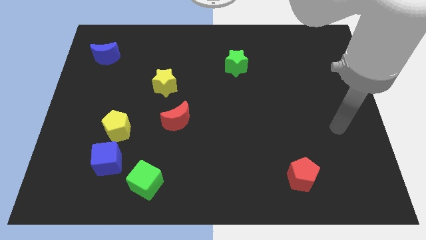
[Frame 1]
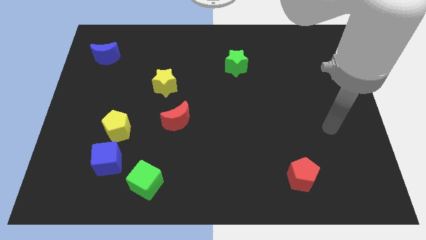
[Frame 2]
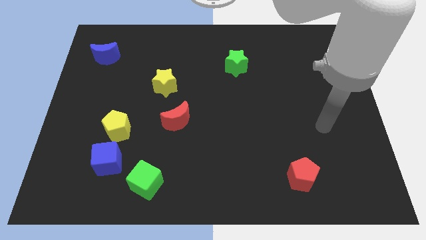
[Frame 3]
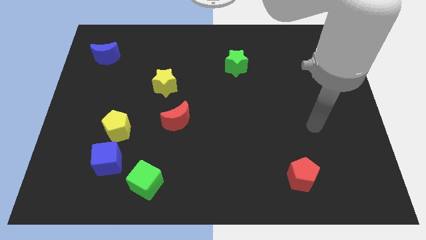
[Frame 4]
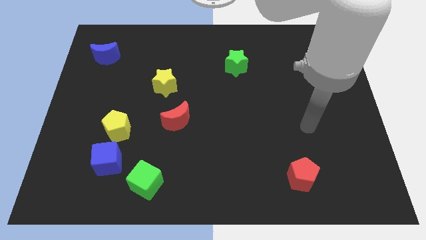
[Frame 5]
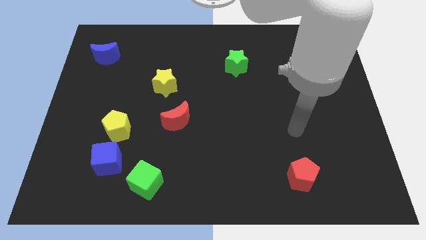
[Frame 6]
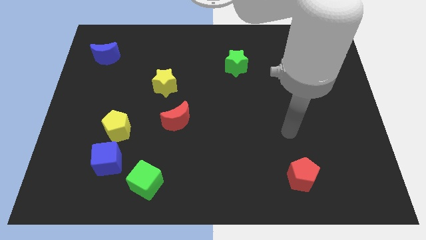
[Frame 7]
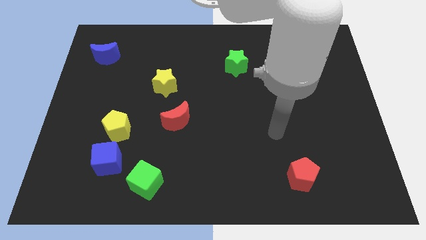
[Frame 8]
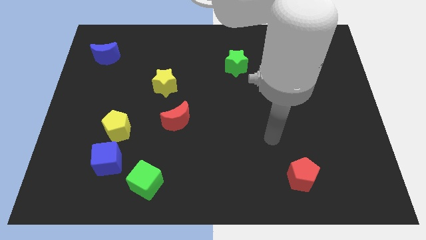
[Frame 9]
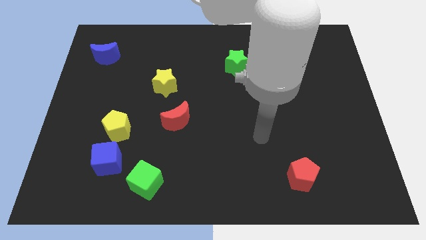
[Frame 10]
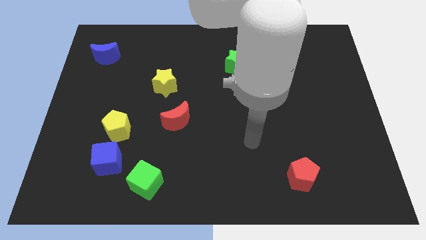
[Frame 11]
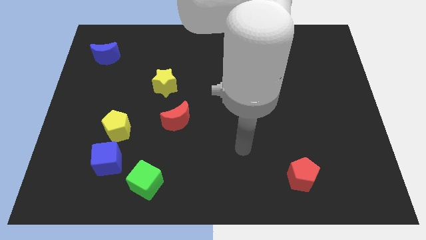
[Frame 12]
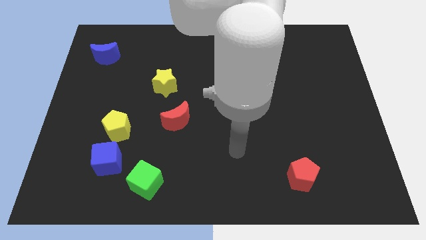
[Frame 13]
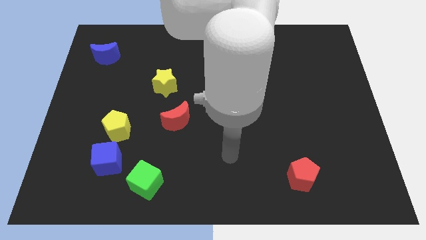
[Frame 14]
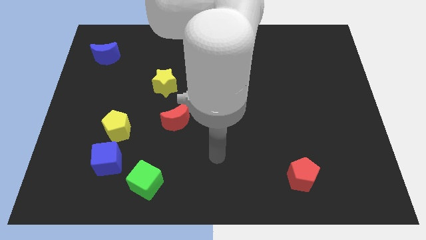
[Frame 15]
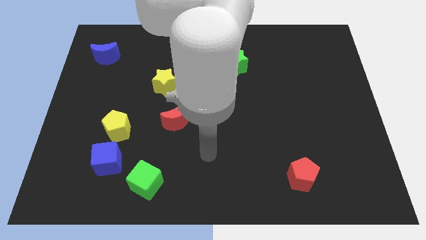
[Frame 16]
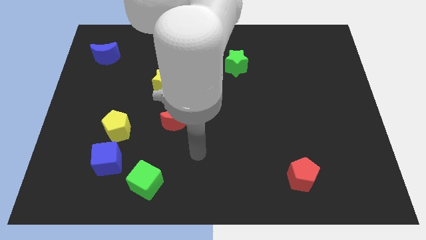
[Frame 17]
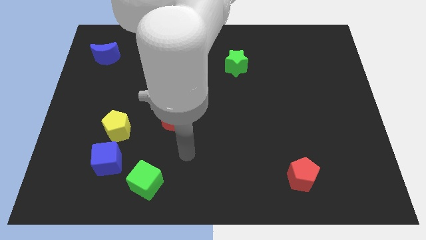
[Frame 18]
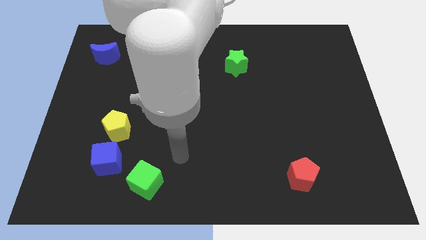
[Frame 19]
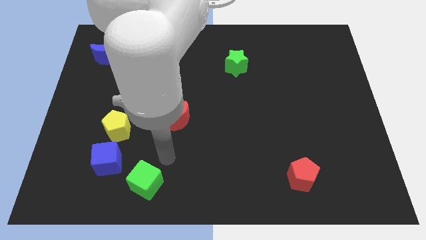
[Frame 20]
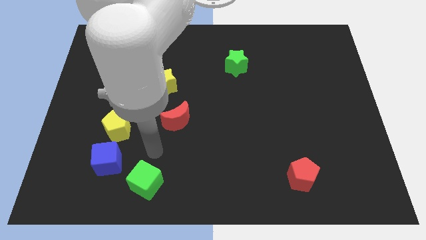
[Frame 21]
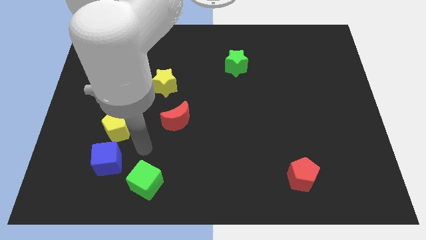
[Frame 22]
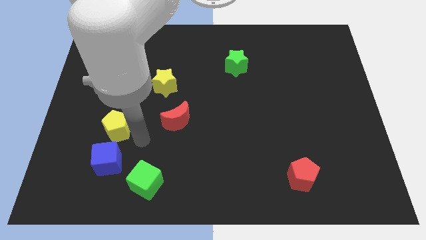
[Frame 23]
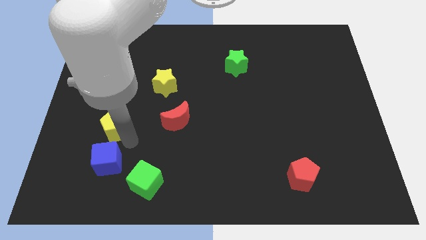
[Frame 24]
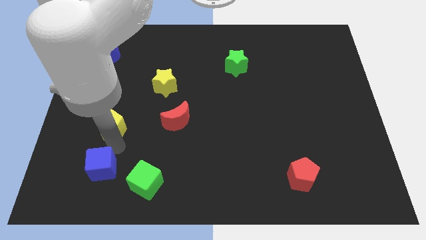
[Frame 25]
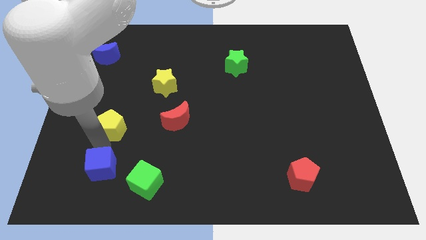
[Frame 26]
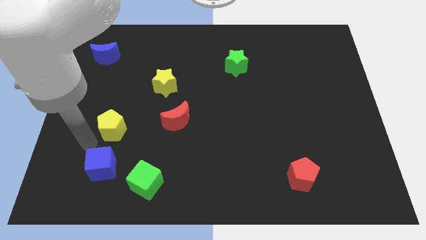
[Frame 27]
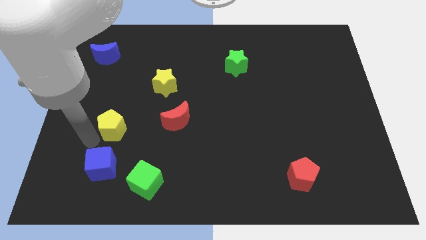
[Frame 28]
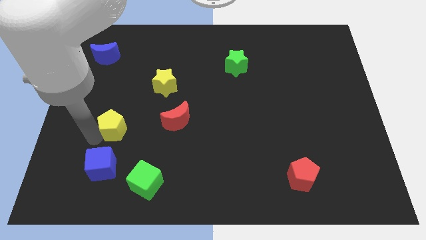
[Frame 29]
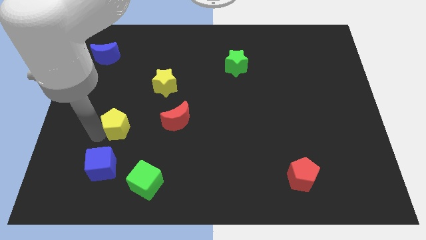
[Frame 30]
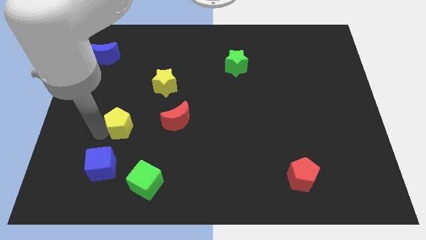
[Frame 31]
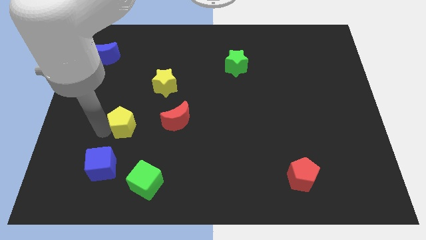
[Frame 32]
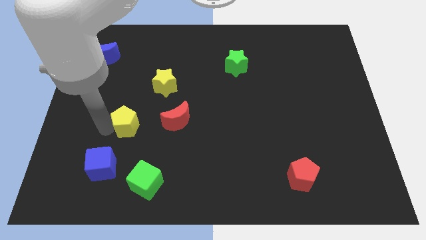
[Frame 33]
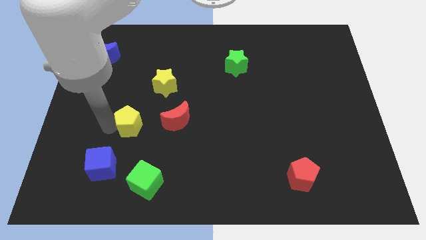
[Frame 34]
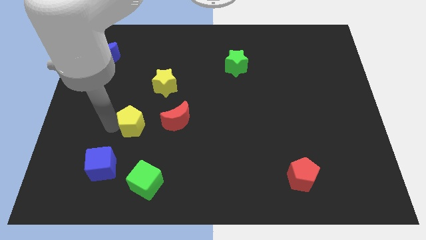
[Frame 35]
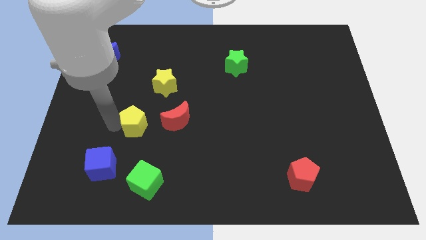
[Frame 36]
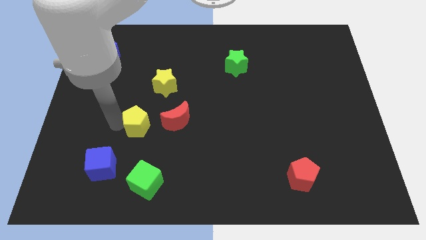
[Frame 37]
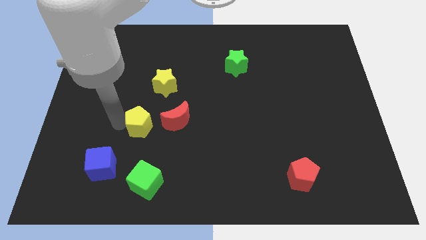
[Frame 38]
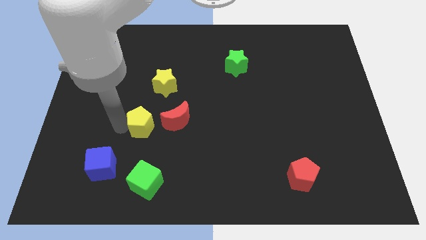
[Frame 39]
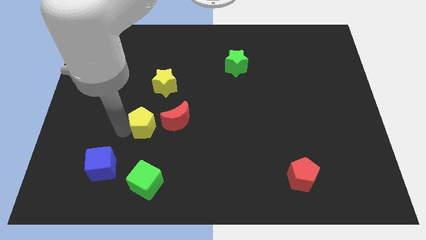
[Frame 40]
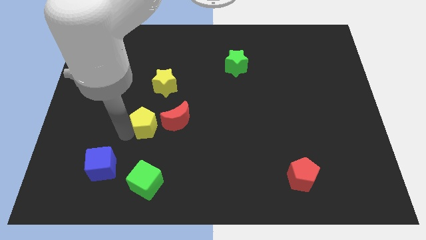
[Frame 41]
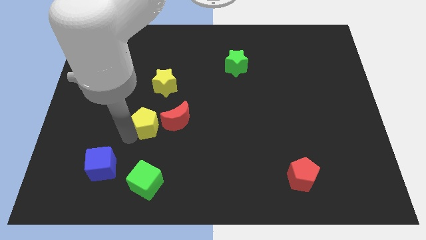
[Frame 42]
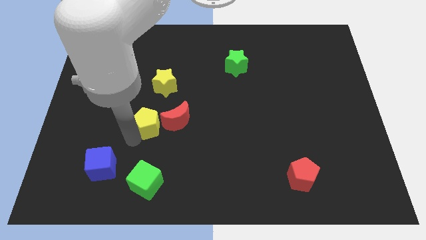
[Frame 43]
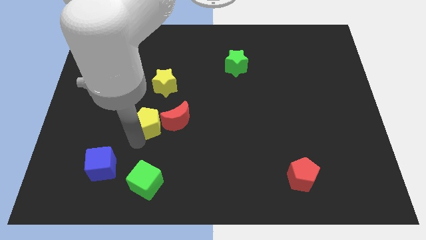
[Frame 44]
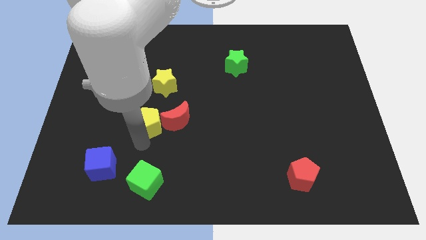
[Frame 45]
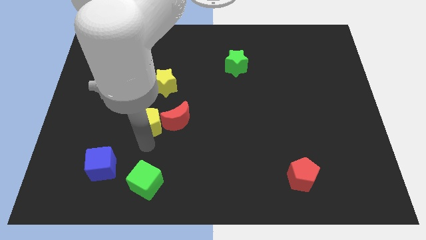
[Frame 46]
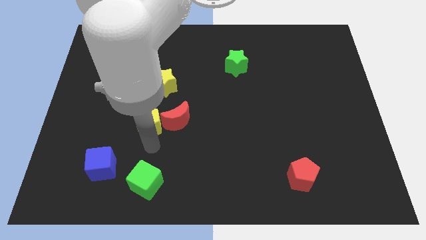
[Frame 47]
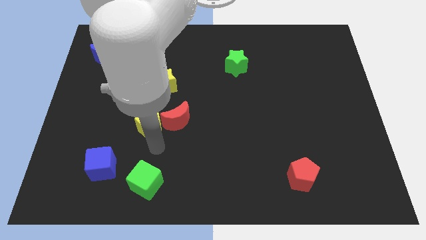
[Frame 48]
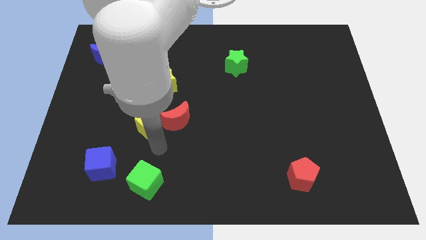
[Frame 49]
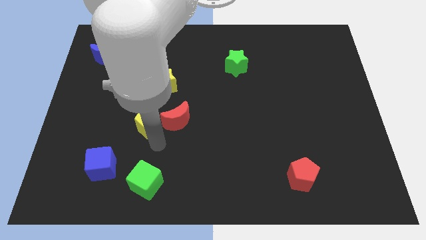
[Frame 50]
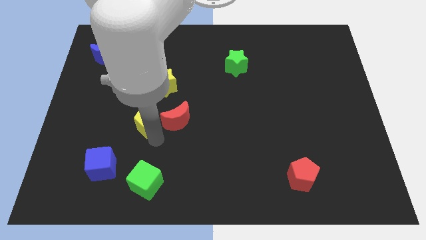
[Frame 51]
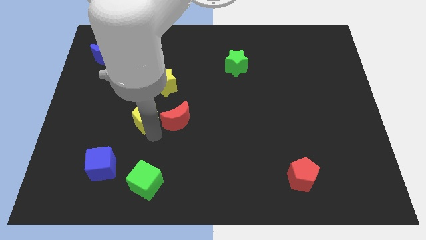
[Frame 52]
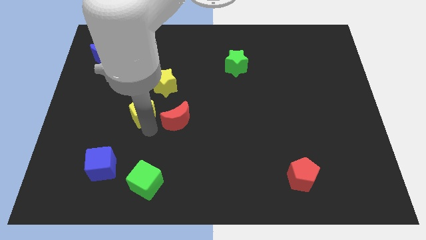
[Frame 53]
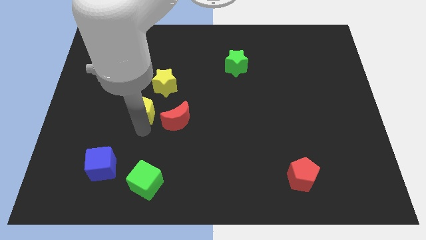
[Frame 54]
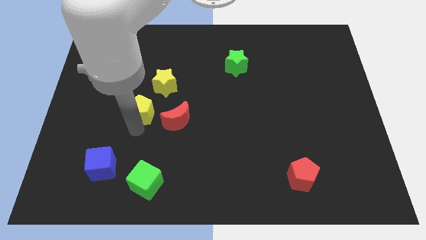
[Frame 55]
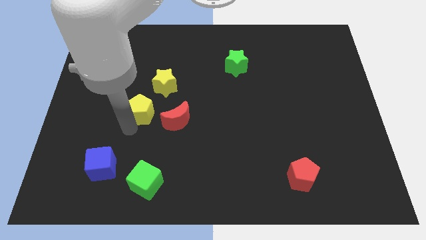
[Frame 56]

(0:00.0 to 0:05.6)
slightly push the yellow pentagon diagonally upwards and right

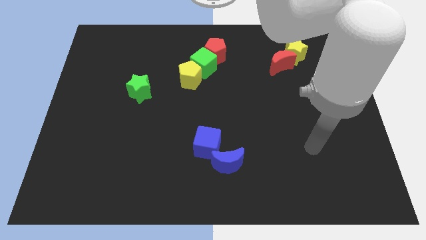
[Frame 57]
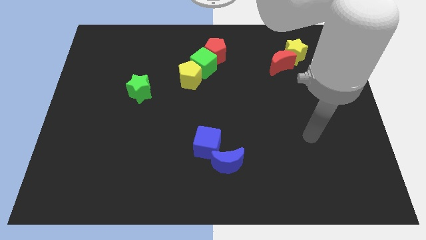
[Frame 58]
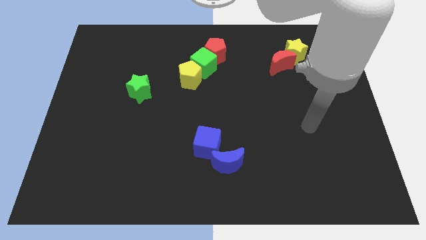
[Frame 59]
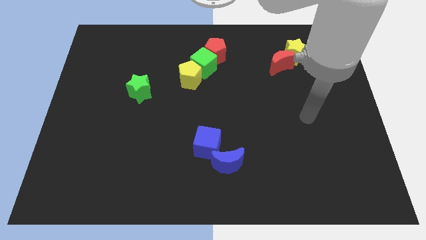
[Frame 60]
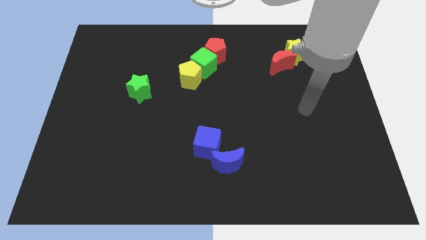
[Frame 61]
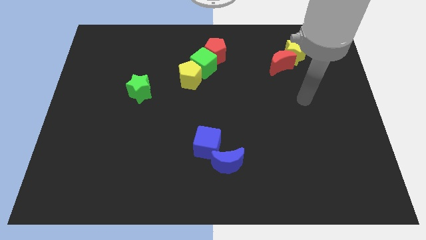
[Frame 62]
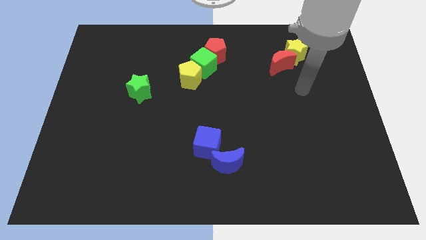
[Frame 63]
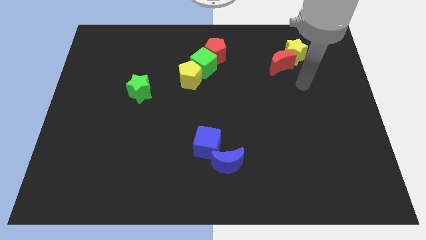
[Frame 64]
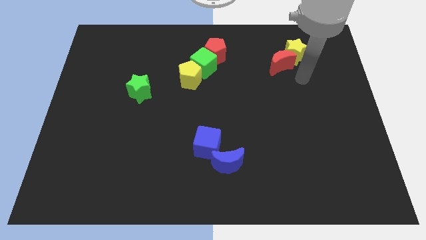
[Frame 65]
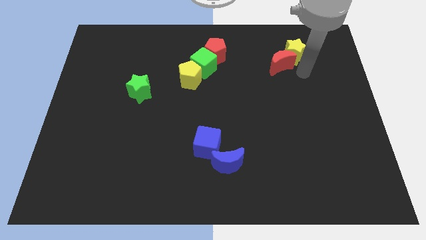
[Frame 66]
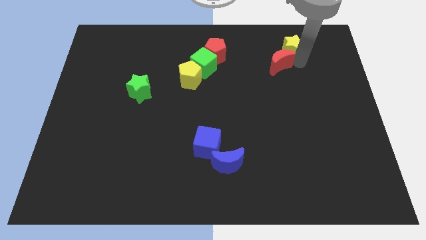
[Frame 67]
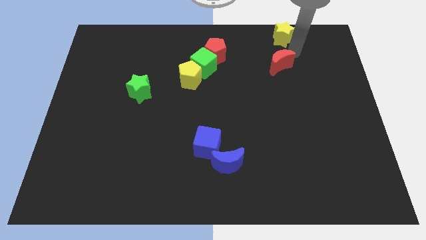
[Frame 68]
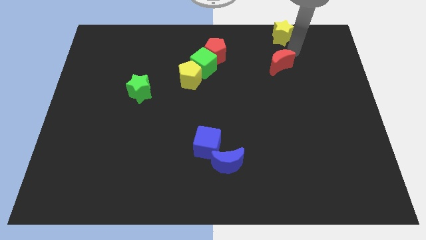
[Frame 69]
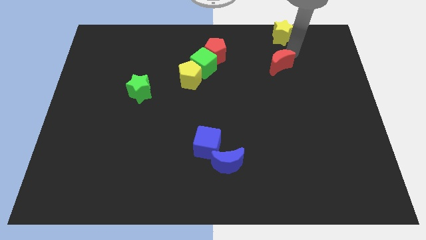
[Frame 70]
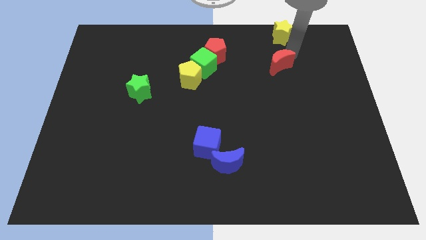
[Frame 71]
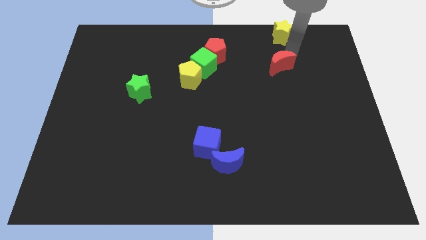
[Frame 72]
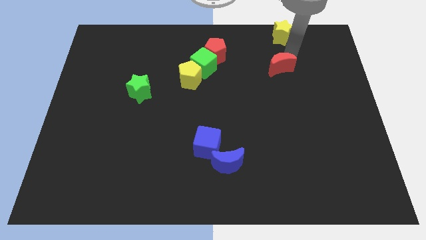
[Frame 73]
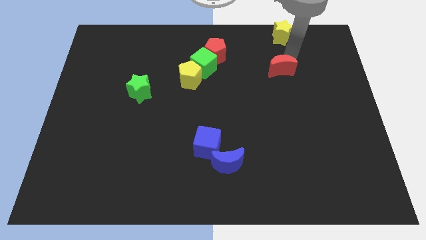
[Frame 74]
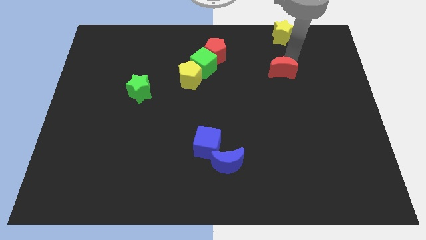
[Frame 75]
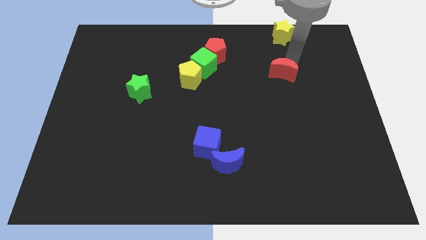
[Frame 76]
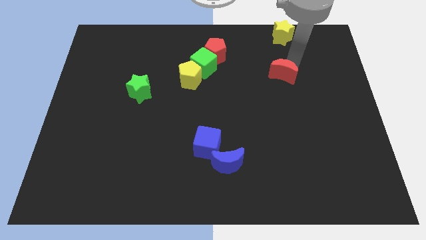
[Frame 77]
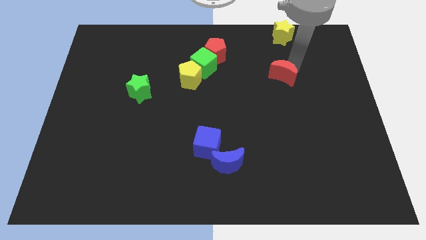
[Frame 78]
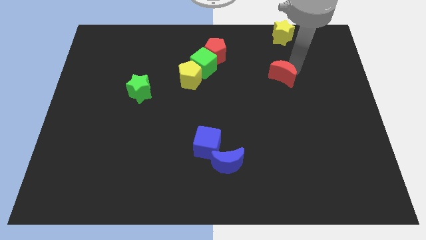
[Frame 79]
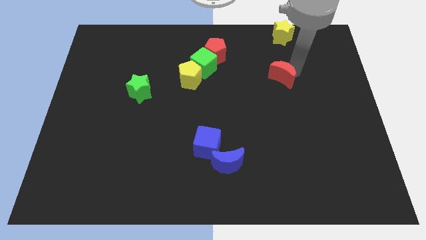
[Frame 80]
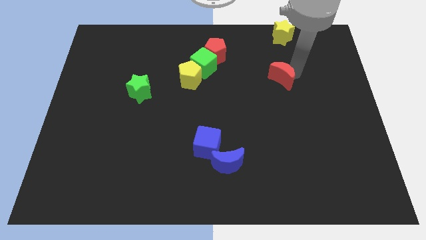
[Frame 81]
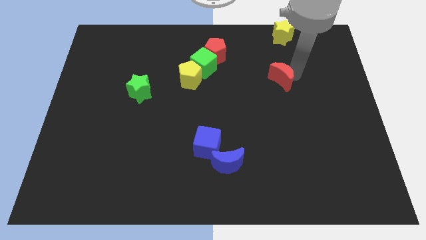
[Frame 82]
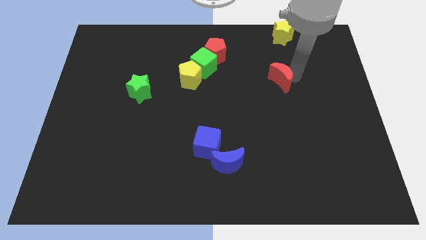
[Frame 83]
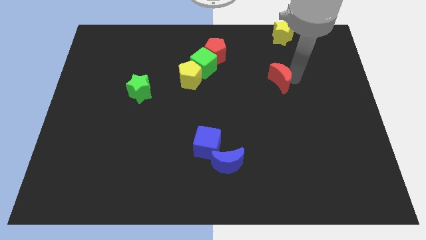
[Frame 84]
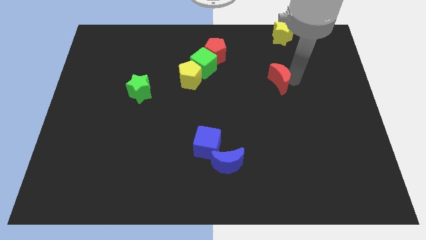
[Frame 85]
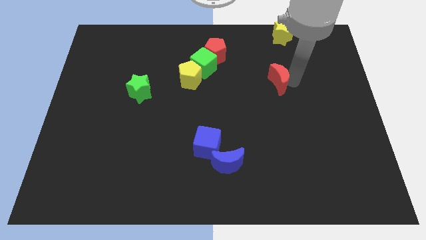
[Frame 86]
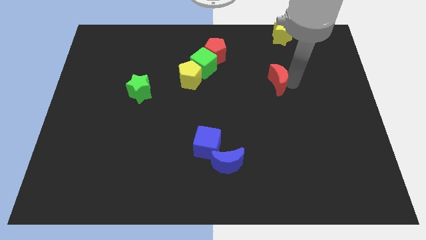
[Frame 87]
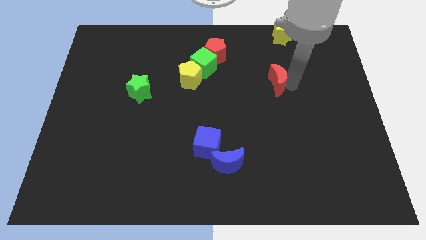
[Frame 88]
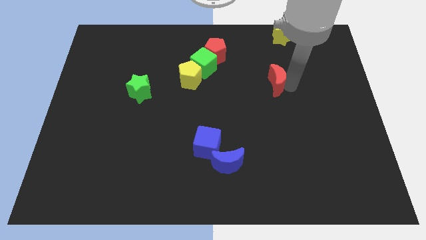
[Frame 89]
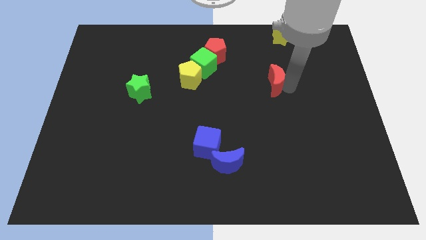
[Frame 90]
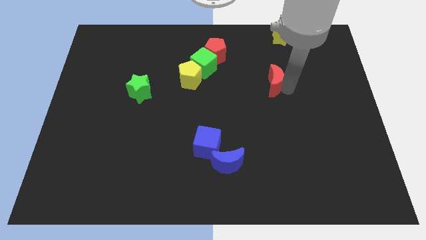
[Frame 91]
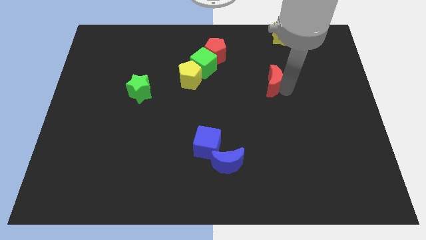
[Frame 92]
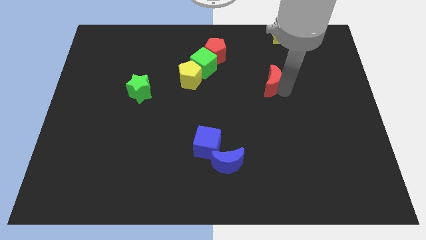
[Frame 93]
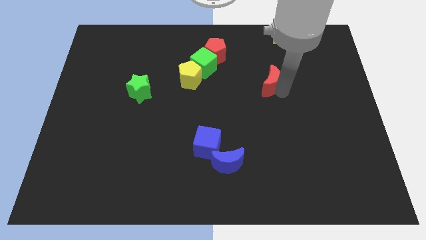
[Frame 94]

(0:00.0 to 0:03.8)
slide the red moon downwards and left diagonally a little bit
